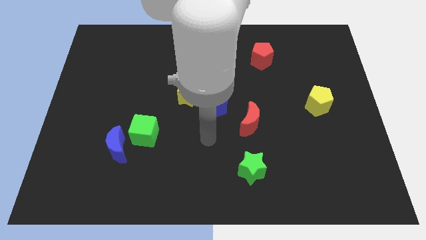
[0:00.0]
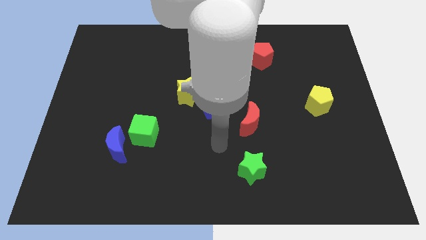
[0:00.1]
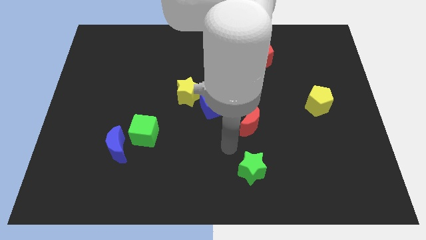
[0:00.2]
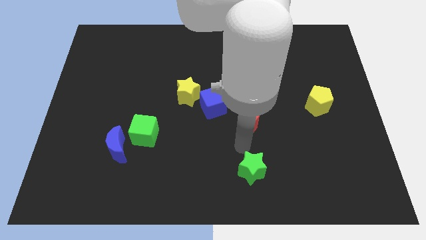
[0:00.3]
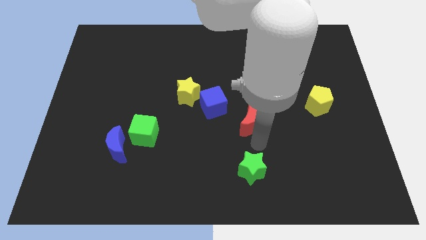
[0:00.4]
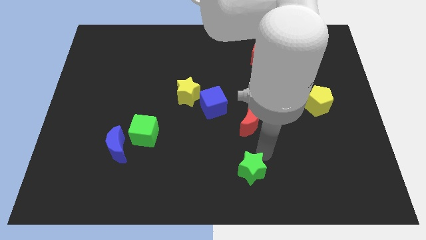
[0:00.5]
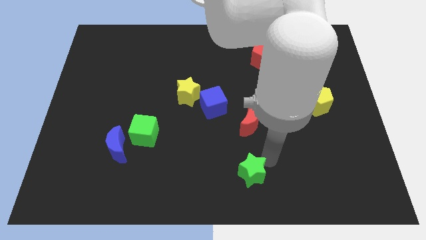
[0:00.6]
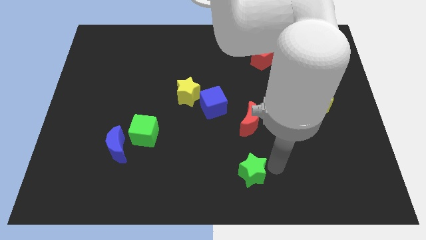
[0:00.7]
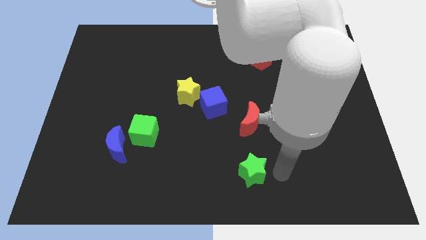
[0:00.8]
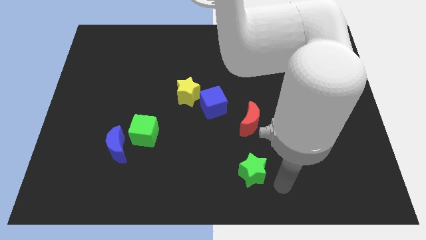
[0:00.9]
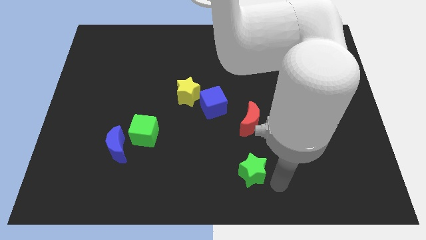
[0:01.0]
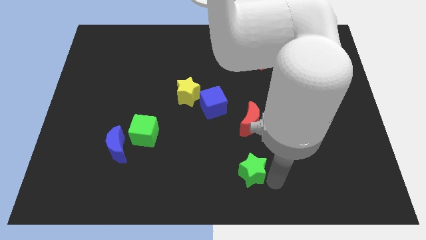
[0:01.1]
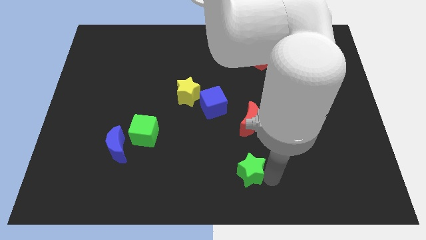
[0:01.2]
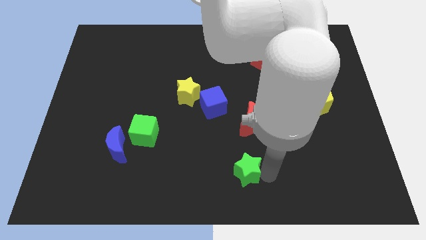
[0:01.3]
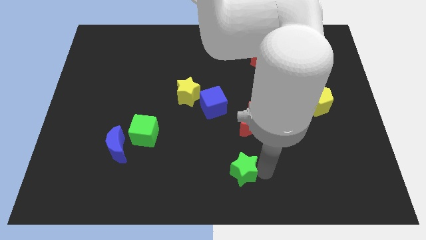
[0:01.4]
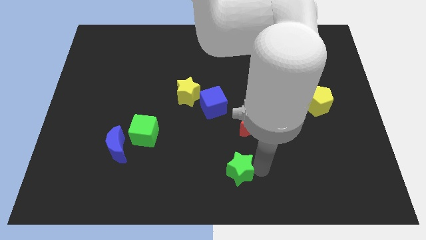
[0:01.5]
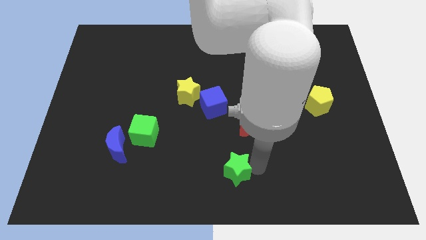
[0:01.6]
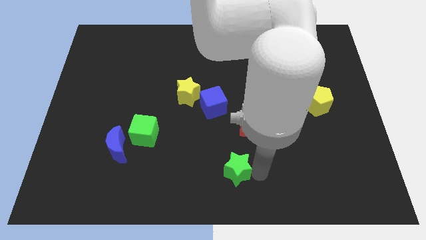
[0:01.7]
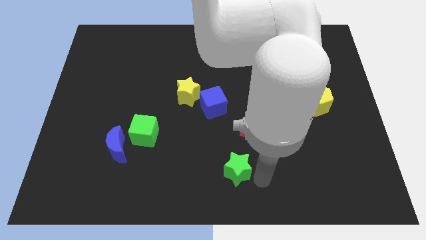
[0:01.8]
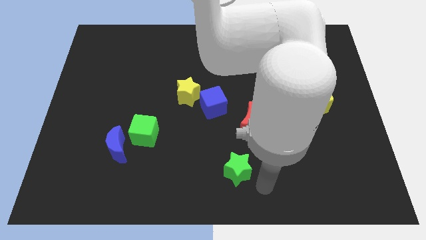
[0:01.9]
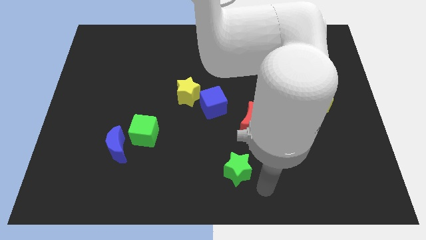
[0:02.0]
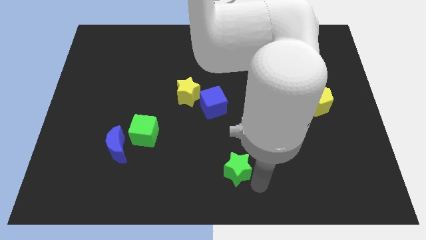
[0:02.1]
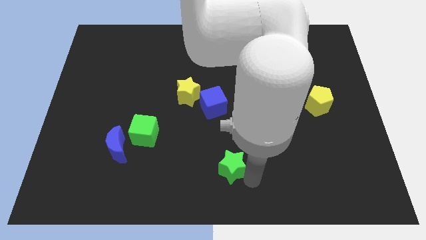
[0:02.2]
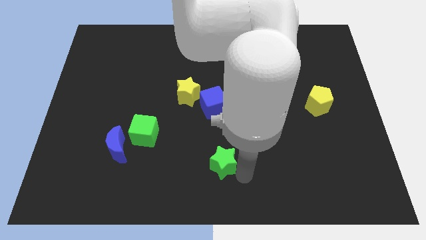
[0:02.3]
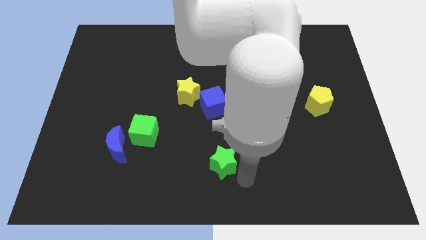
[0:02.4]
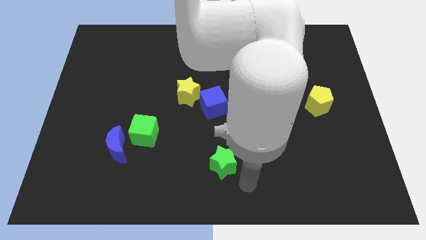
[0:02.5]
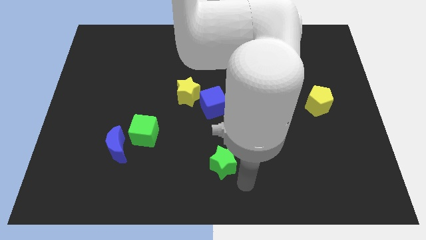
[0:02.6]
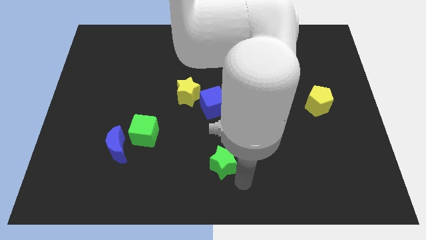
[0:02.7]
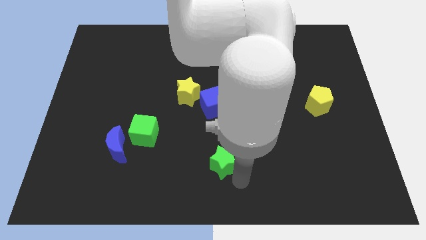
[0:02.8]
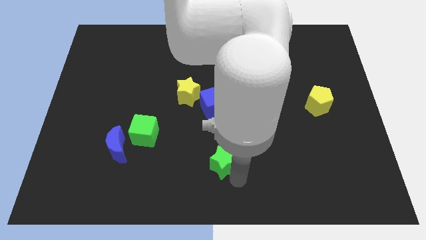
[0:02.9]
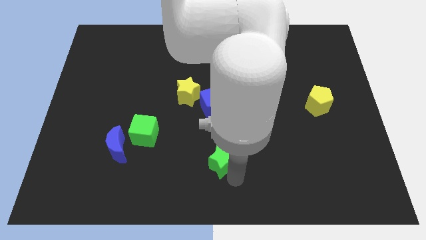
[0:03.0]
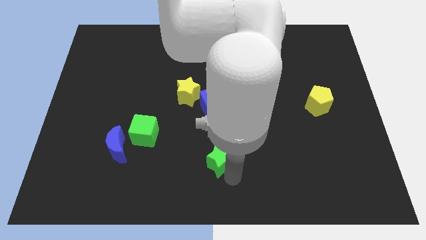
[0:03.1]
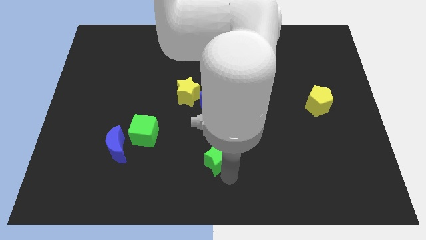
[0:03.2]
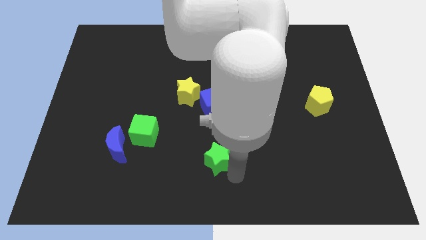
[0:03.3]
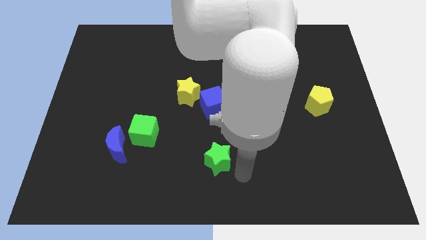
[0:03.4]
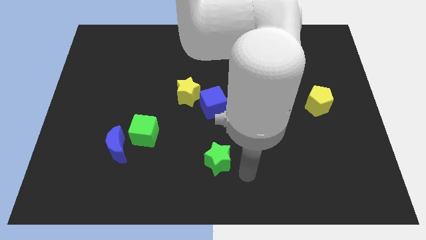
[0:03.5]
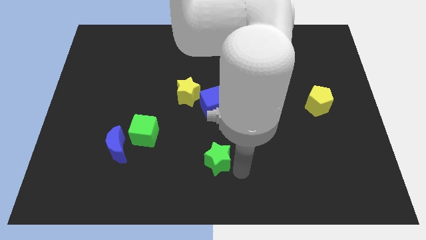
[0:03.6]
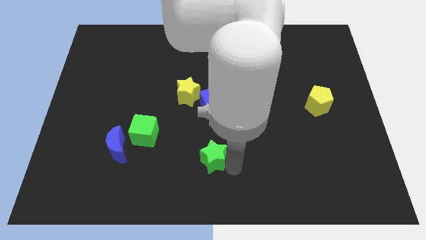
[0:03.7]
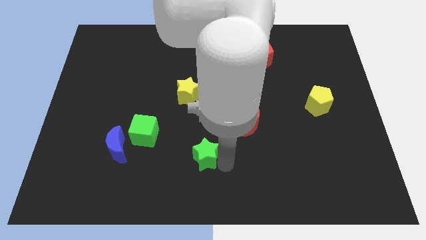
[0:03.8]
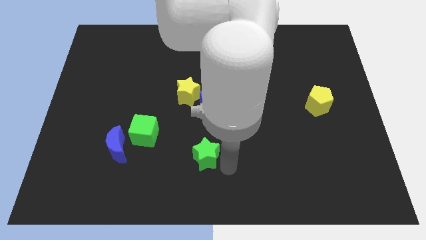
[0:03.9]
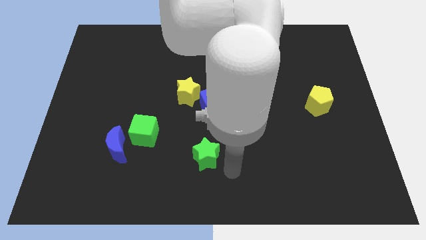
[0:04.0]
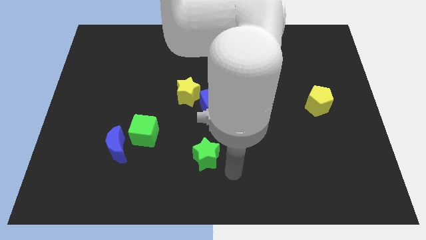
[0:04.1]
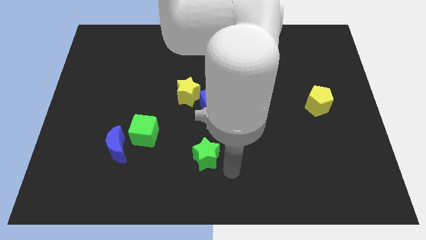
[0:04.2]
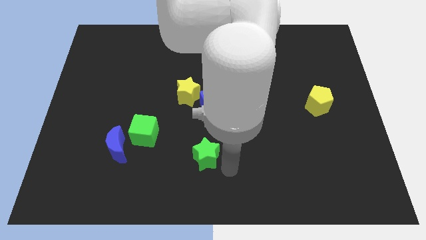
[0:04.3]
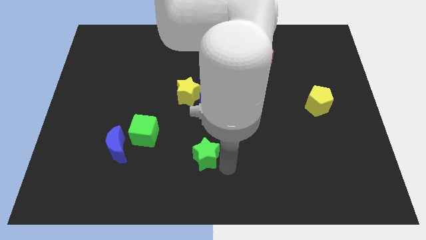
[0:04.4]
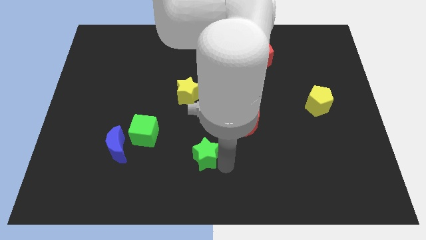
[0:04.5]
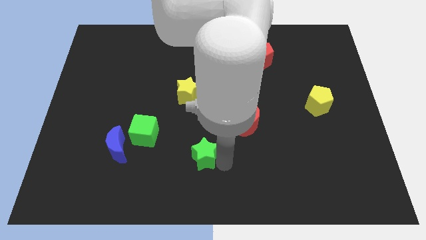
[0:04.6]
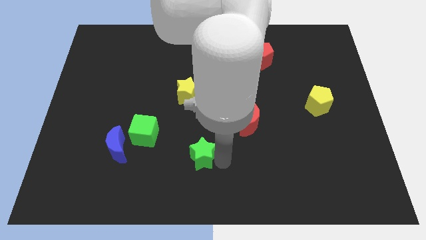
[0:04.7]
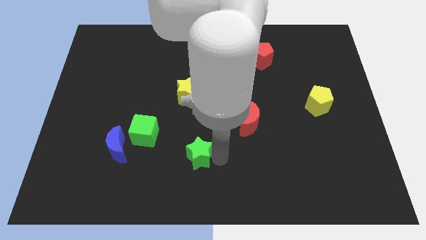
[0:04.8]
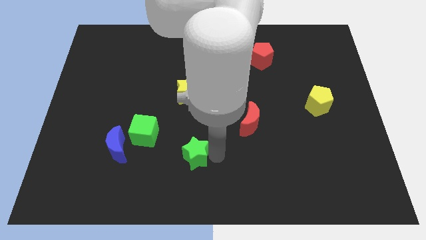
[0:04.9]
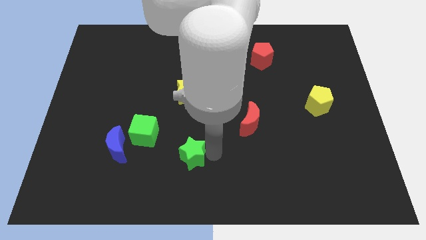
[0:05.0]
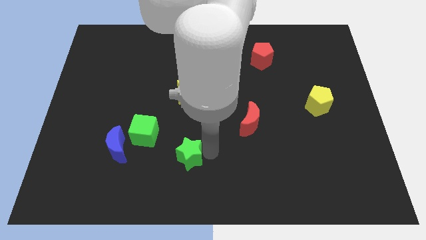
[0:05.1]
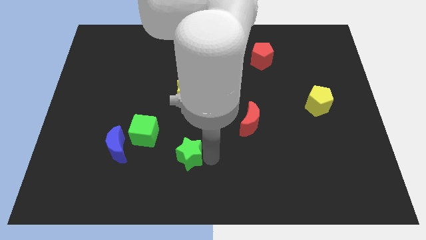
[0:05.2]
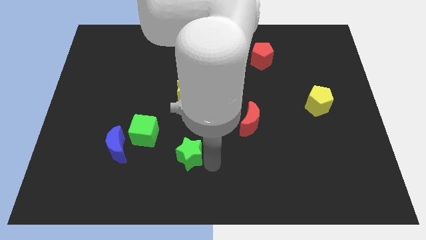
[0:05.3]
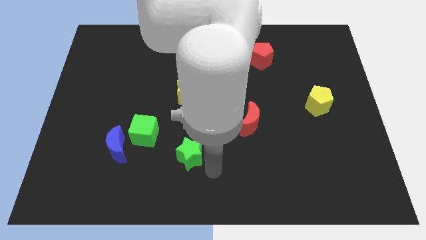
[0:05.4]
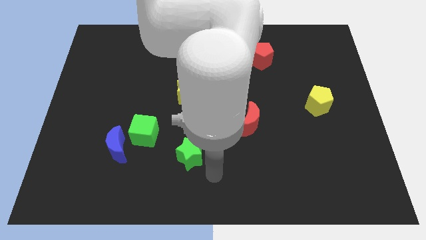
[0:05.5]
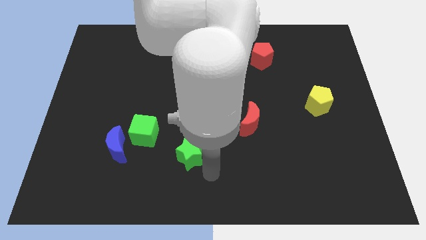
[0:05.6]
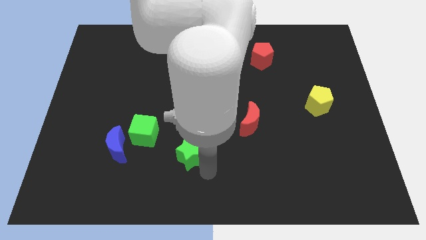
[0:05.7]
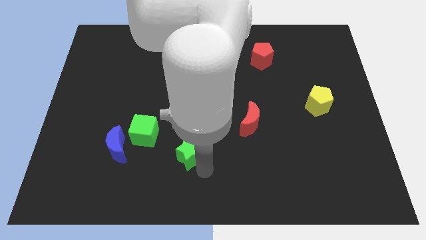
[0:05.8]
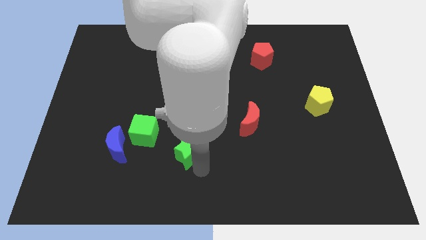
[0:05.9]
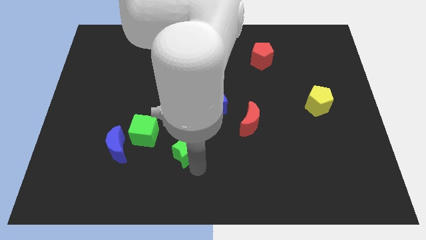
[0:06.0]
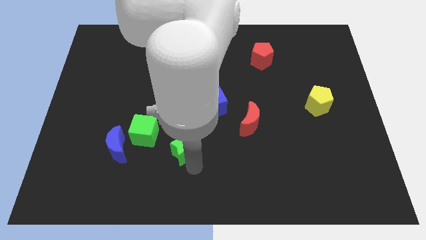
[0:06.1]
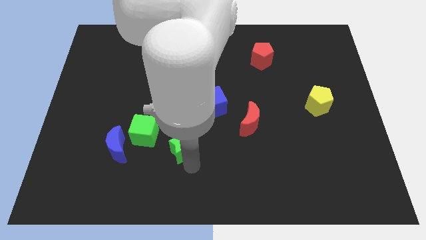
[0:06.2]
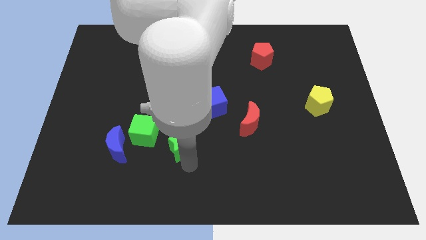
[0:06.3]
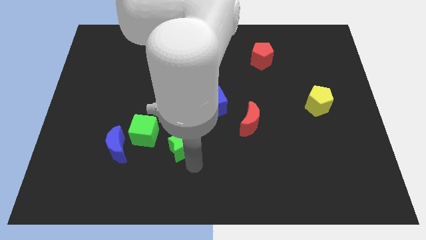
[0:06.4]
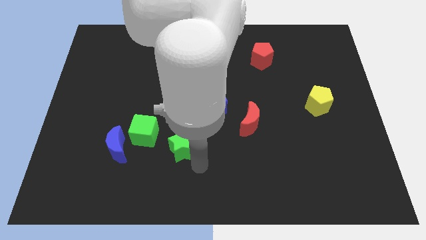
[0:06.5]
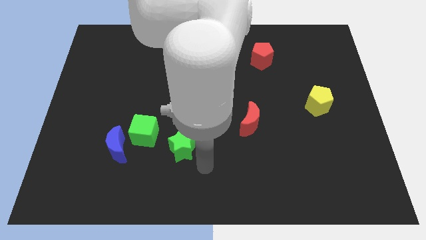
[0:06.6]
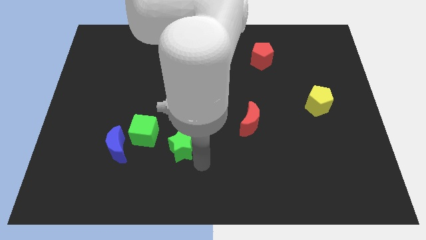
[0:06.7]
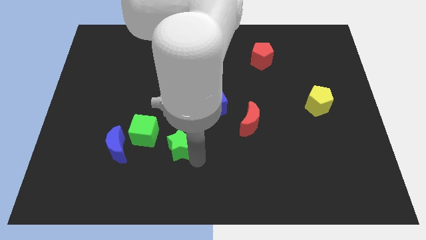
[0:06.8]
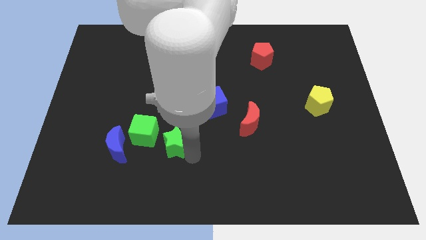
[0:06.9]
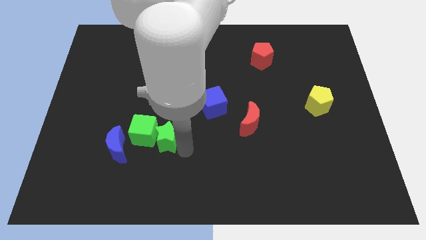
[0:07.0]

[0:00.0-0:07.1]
move the green star next to the green cube
